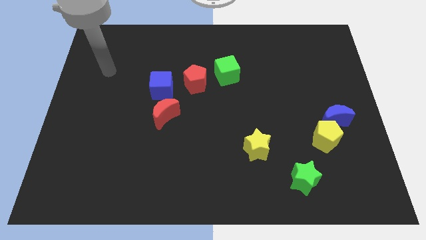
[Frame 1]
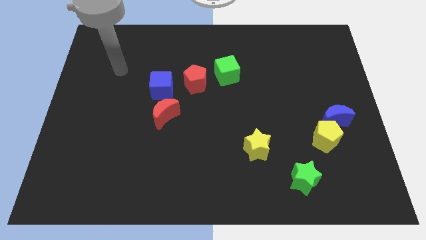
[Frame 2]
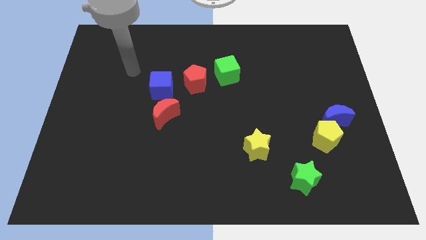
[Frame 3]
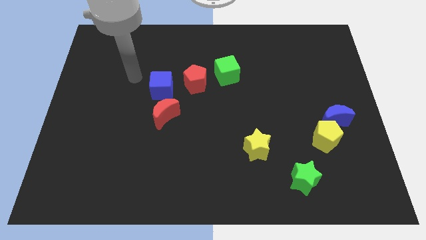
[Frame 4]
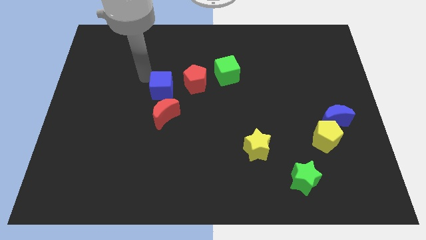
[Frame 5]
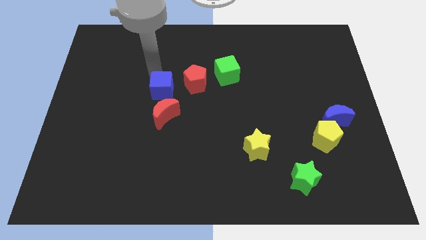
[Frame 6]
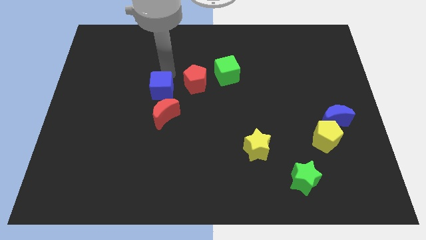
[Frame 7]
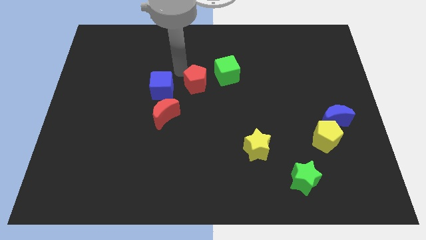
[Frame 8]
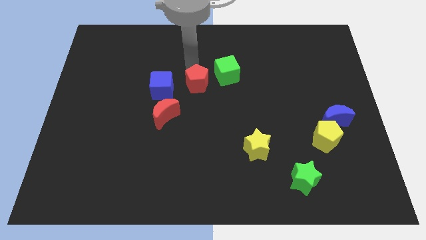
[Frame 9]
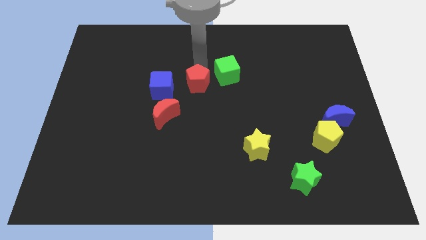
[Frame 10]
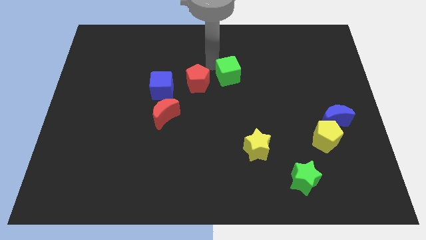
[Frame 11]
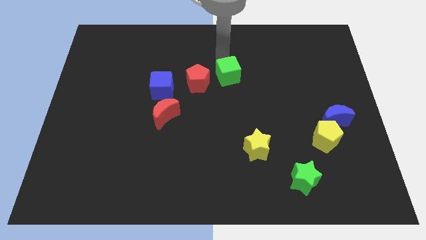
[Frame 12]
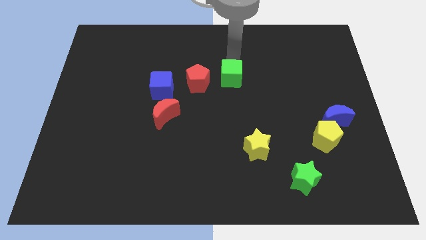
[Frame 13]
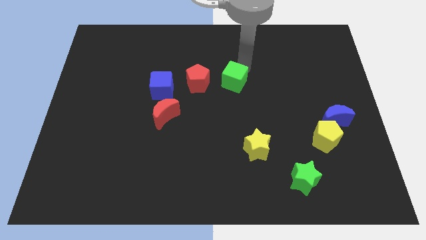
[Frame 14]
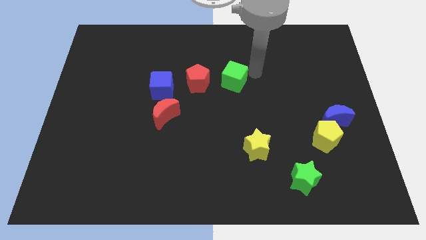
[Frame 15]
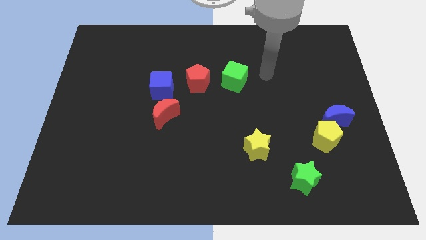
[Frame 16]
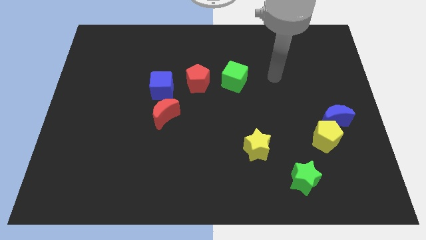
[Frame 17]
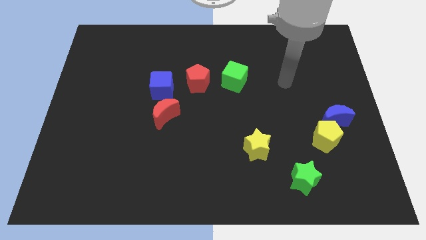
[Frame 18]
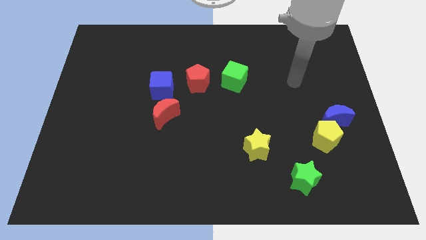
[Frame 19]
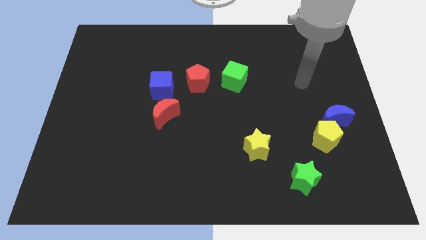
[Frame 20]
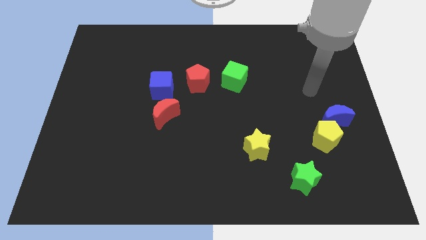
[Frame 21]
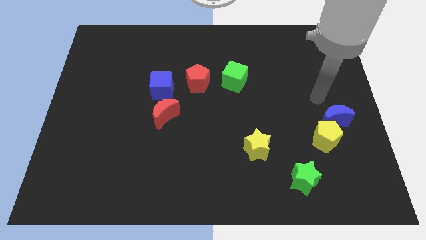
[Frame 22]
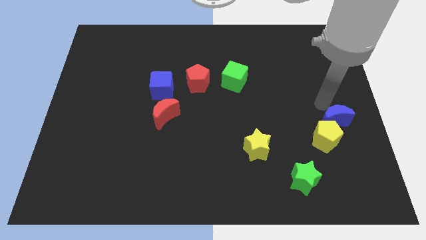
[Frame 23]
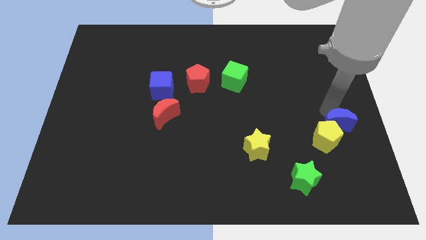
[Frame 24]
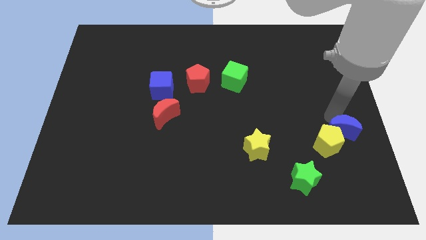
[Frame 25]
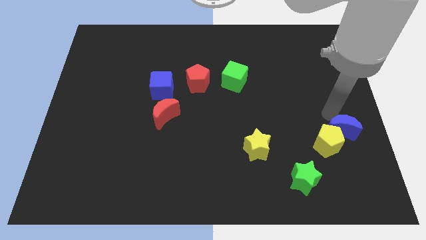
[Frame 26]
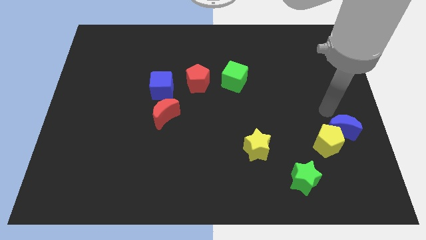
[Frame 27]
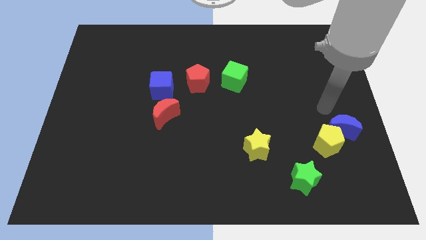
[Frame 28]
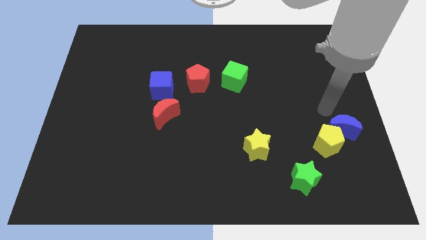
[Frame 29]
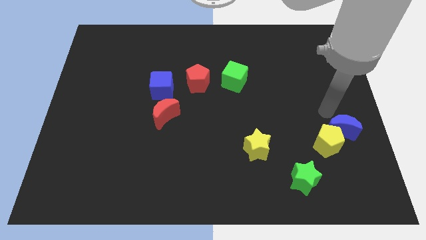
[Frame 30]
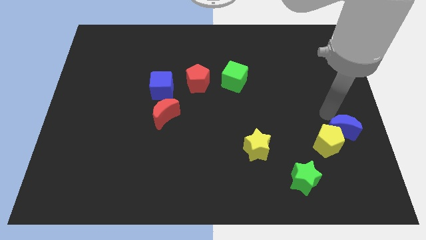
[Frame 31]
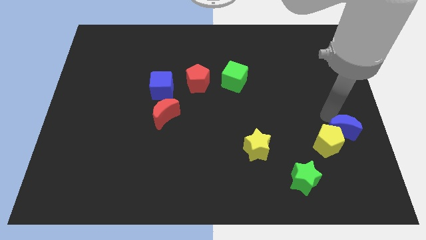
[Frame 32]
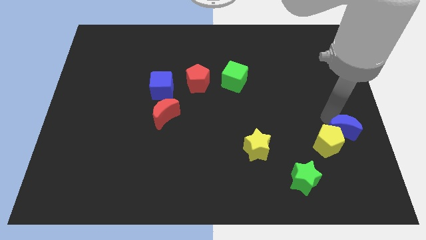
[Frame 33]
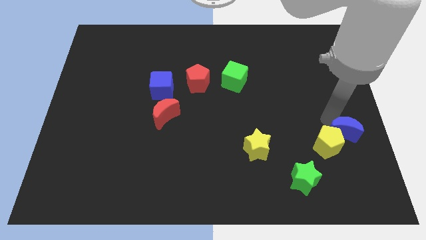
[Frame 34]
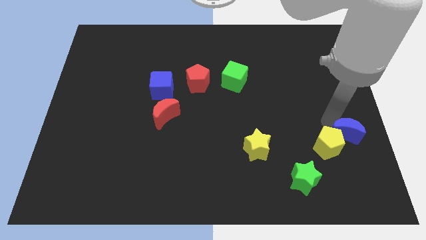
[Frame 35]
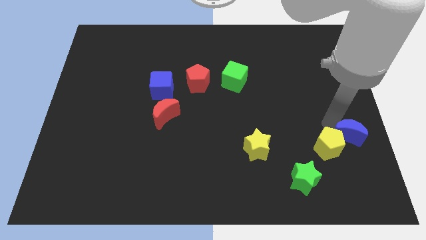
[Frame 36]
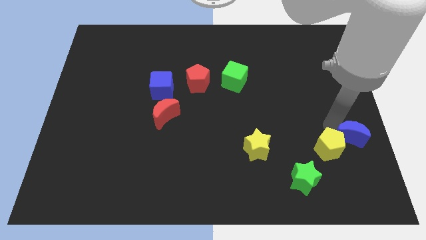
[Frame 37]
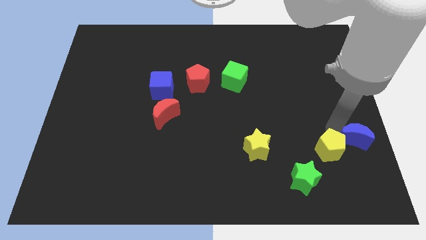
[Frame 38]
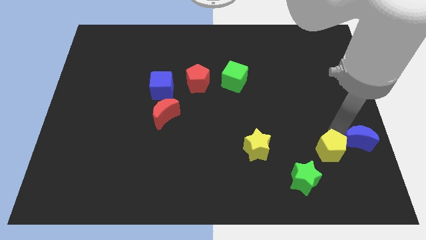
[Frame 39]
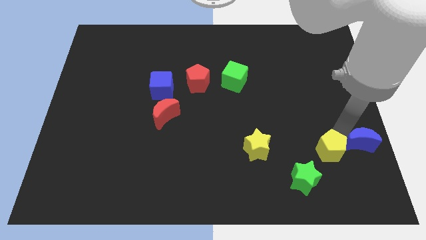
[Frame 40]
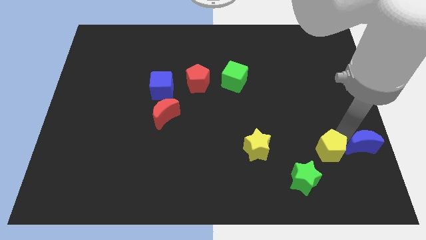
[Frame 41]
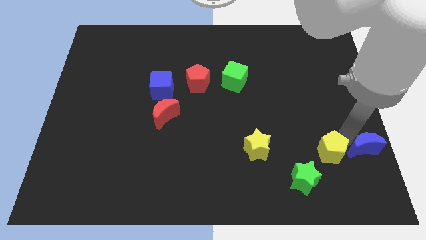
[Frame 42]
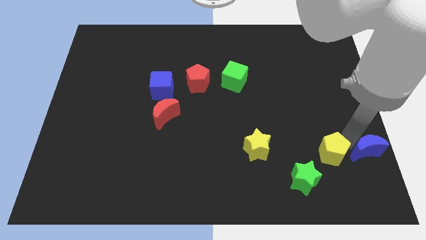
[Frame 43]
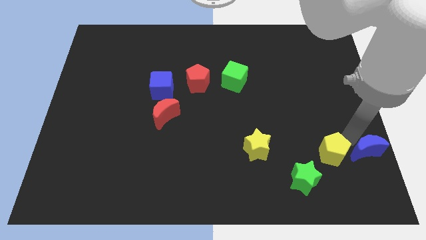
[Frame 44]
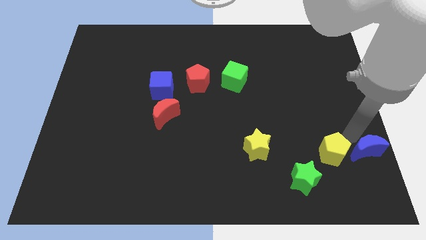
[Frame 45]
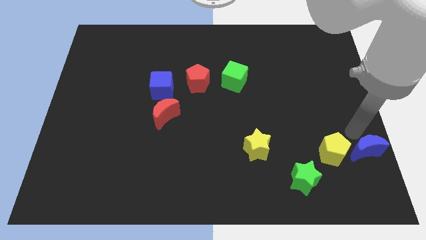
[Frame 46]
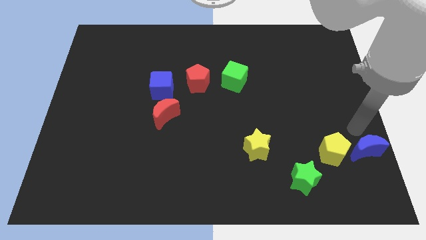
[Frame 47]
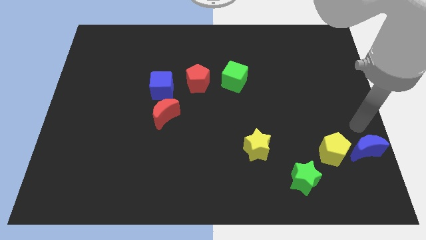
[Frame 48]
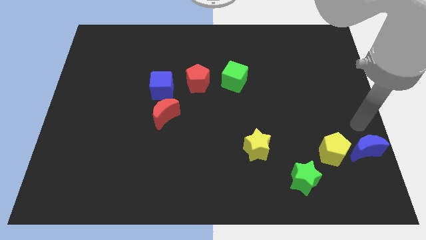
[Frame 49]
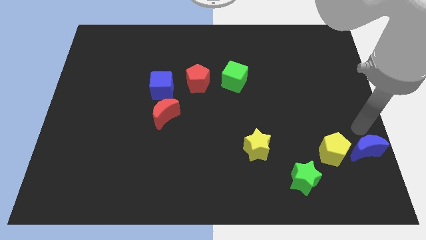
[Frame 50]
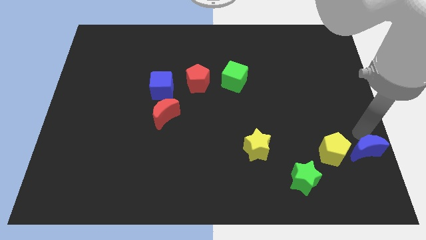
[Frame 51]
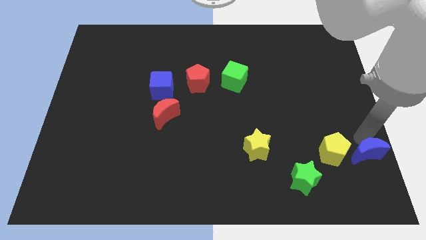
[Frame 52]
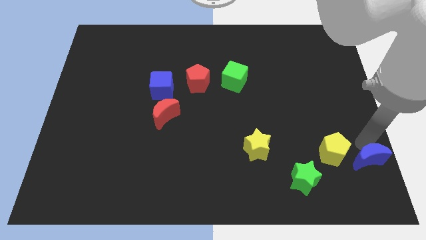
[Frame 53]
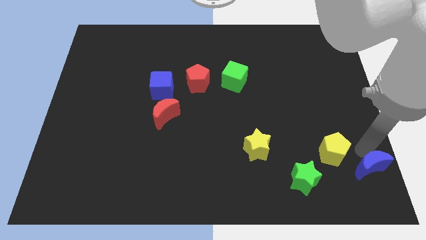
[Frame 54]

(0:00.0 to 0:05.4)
move the blue moon to the bottom right corner
